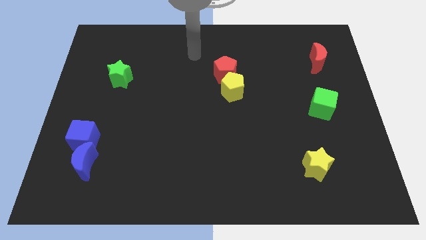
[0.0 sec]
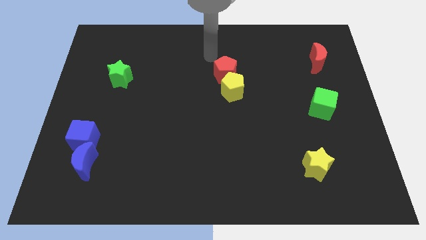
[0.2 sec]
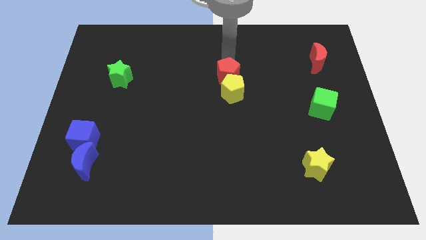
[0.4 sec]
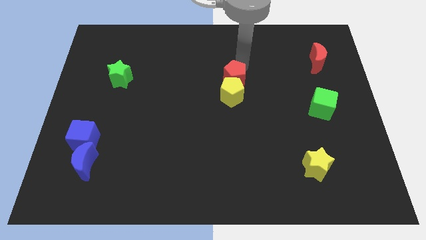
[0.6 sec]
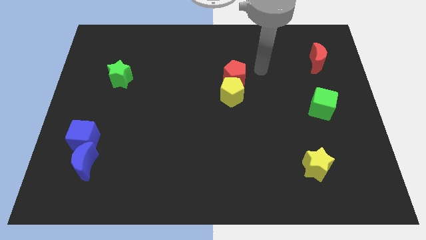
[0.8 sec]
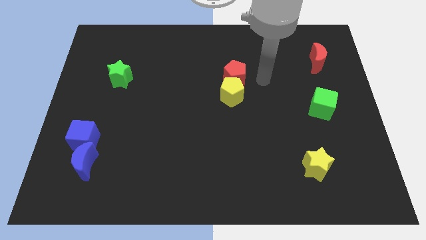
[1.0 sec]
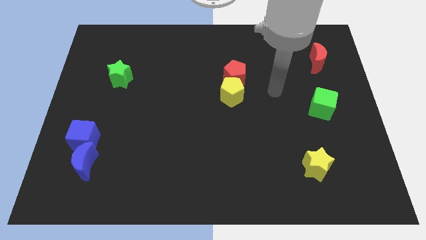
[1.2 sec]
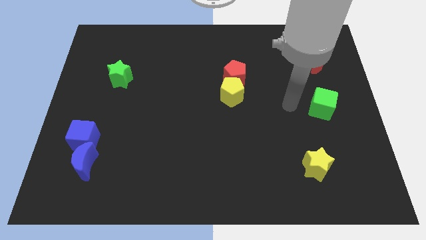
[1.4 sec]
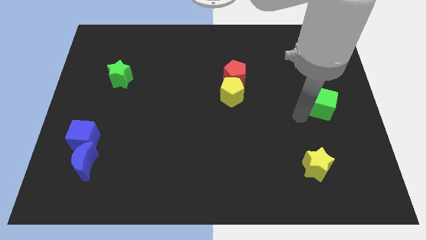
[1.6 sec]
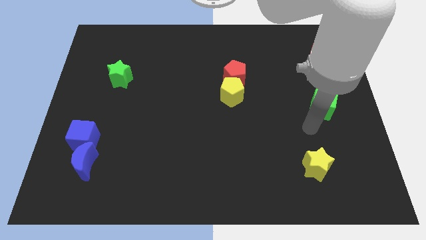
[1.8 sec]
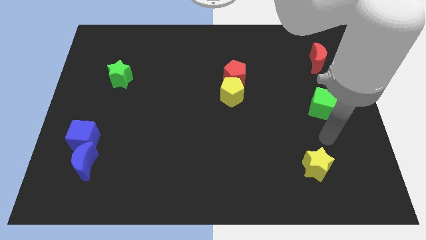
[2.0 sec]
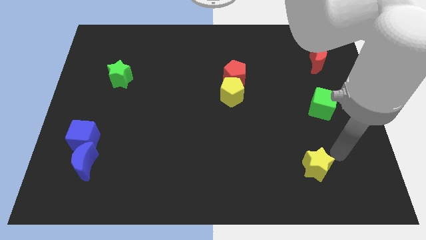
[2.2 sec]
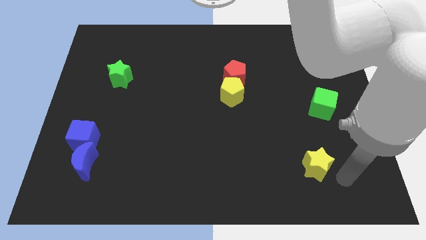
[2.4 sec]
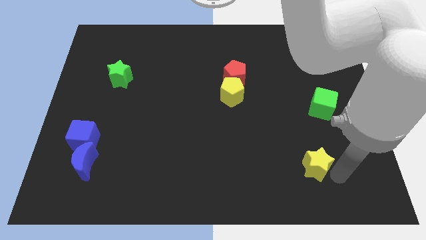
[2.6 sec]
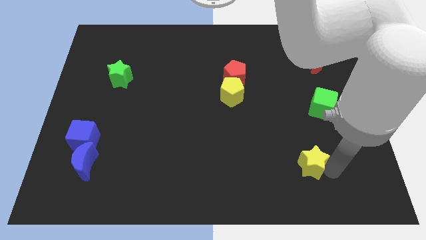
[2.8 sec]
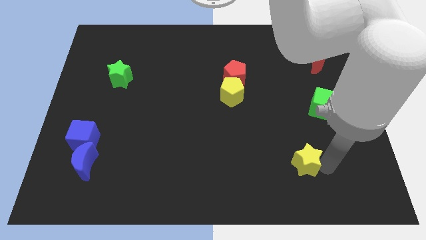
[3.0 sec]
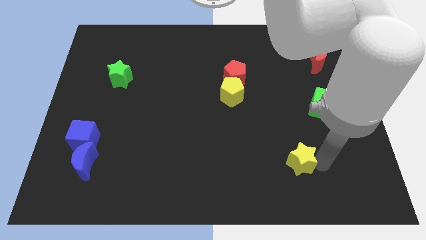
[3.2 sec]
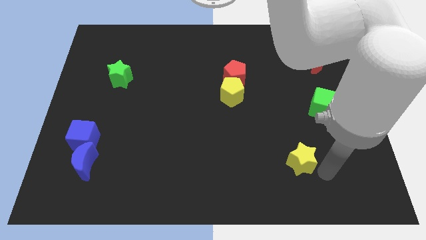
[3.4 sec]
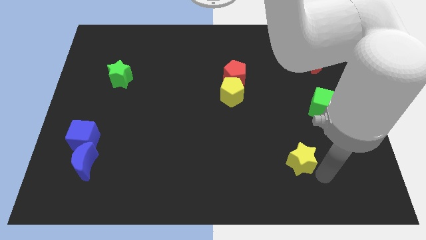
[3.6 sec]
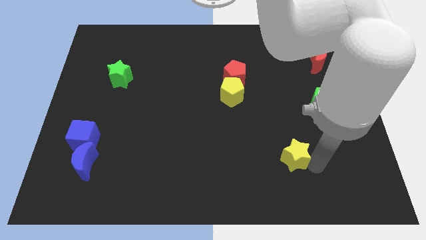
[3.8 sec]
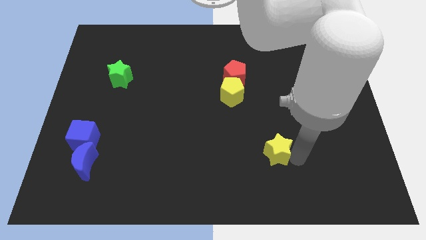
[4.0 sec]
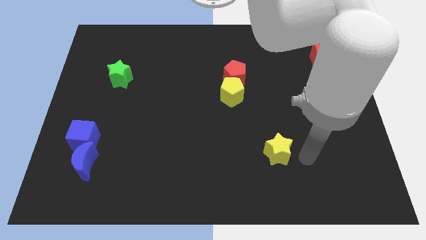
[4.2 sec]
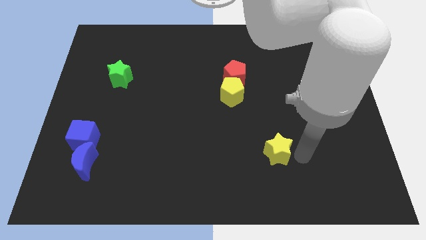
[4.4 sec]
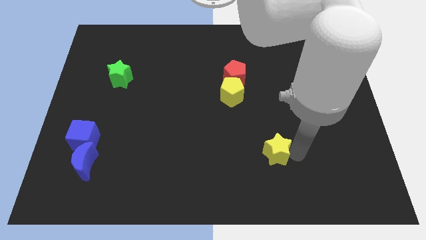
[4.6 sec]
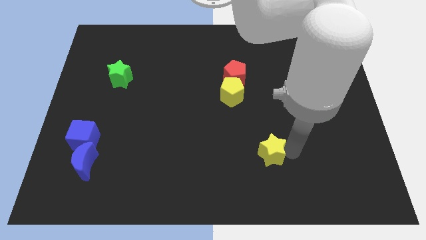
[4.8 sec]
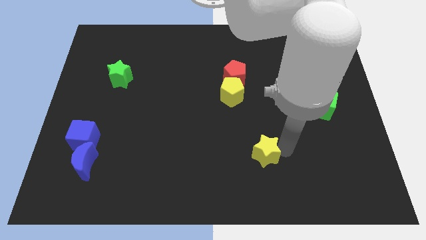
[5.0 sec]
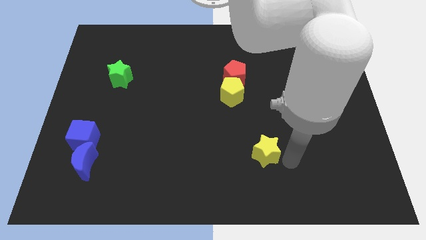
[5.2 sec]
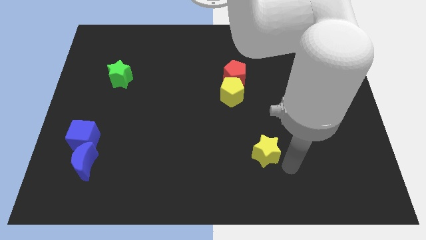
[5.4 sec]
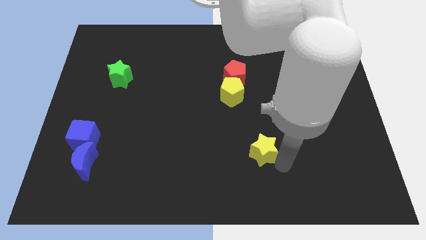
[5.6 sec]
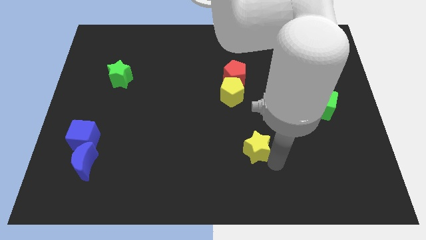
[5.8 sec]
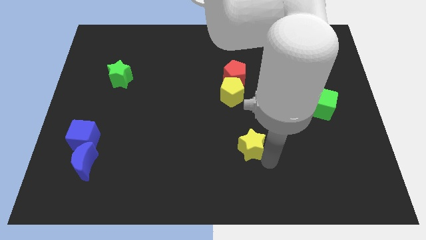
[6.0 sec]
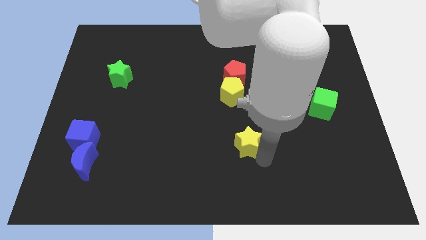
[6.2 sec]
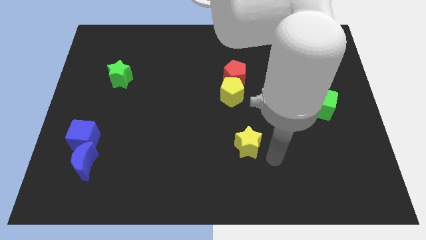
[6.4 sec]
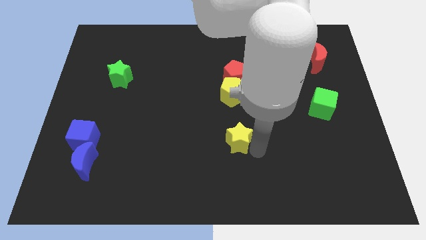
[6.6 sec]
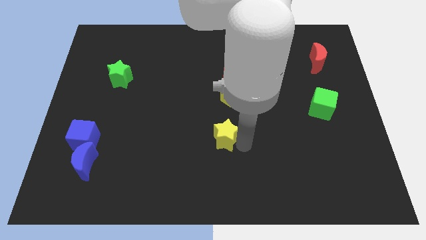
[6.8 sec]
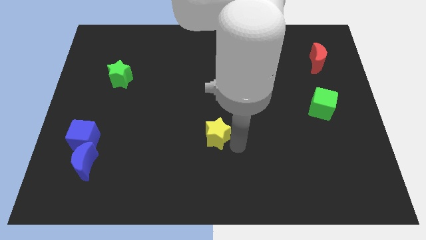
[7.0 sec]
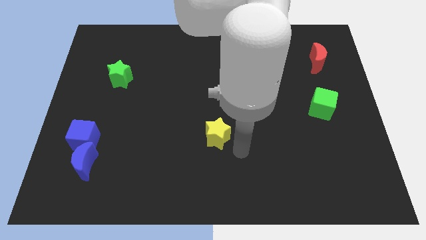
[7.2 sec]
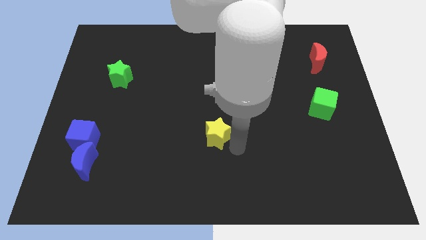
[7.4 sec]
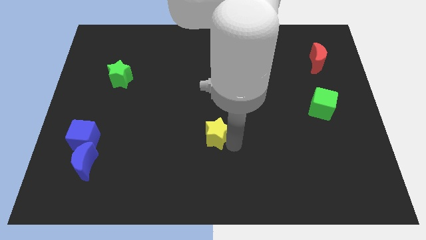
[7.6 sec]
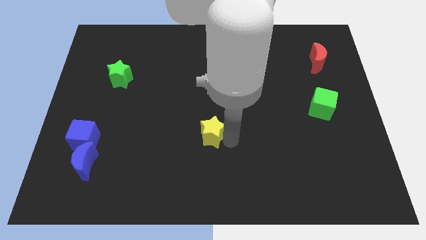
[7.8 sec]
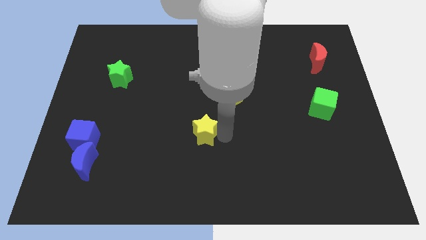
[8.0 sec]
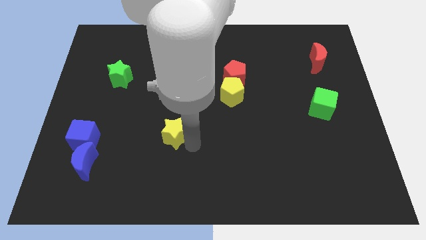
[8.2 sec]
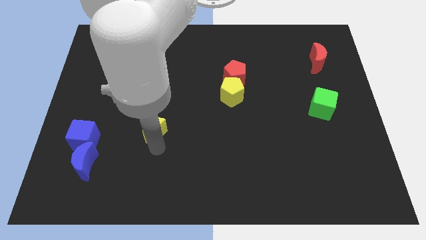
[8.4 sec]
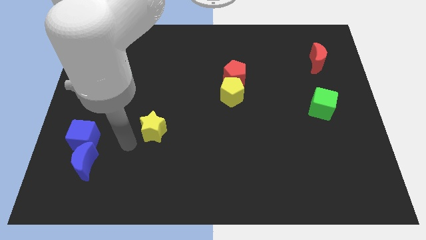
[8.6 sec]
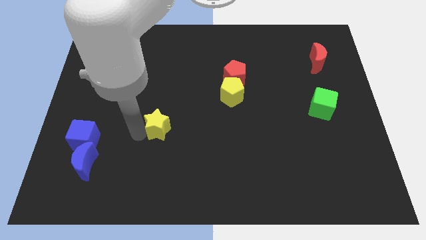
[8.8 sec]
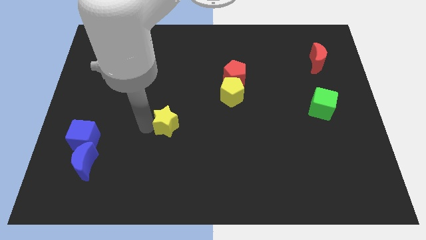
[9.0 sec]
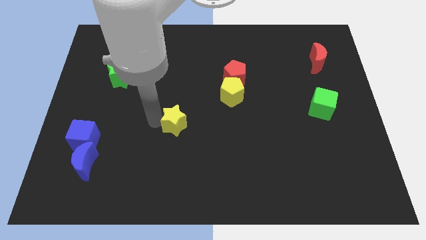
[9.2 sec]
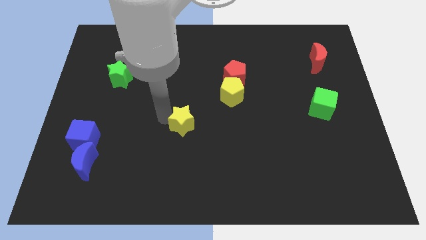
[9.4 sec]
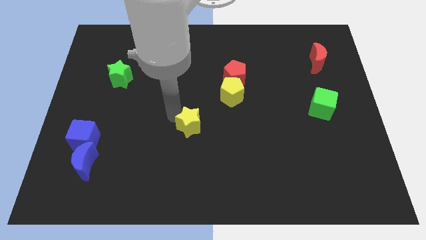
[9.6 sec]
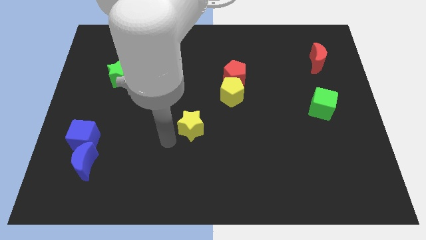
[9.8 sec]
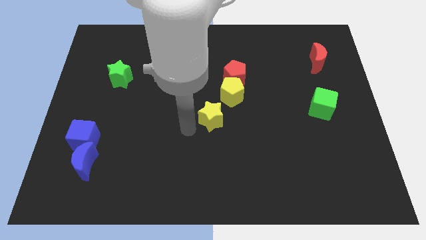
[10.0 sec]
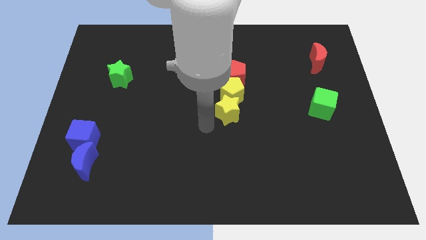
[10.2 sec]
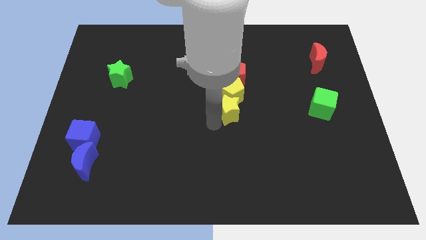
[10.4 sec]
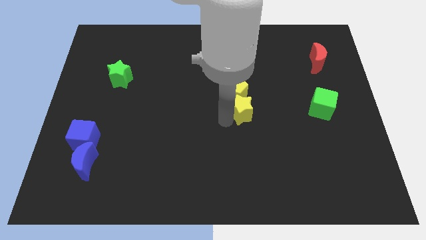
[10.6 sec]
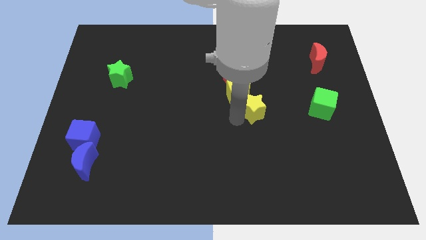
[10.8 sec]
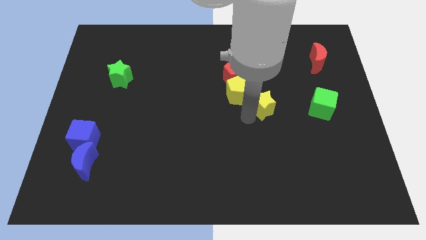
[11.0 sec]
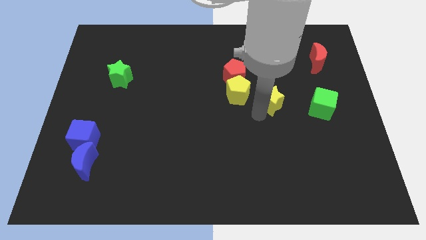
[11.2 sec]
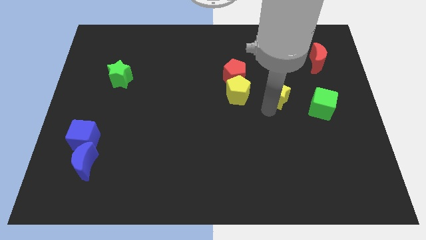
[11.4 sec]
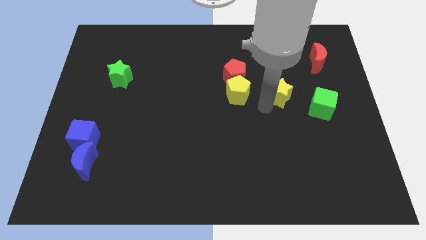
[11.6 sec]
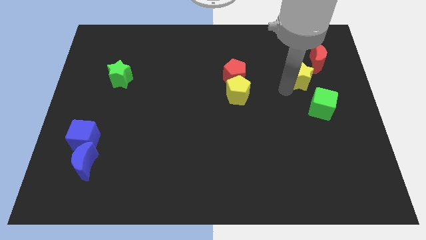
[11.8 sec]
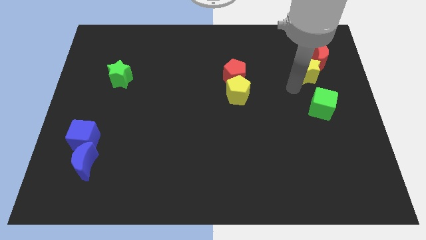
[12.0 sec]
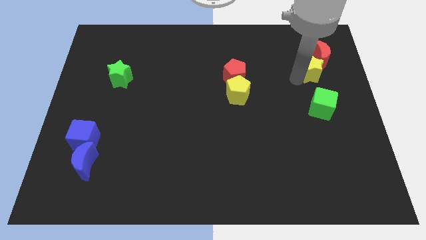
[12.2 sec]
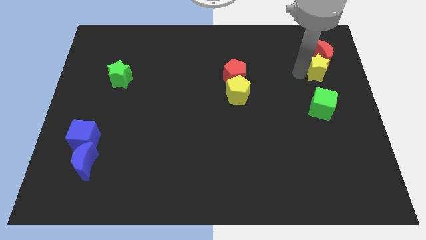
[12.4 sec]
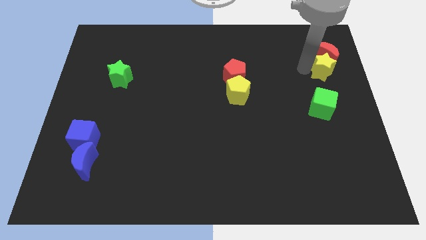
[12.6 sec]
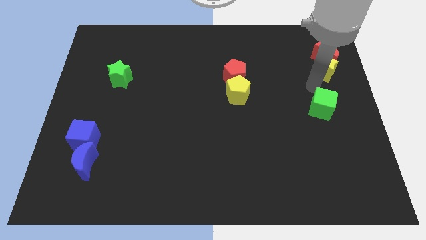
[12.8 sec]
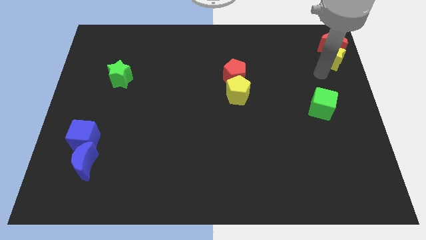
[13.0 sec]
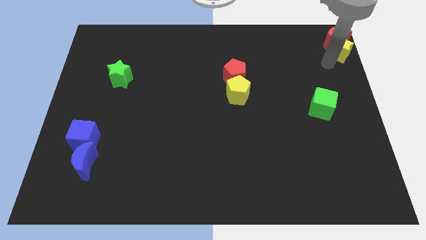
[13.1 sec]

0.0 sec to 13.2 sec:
put the yellow star to the upper right corner

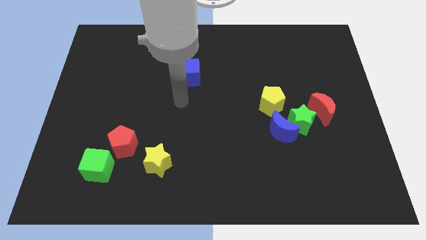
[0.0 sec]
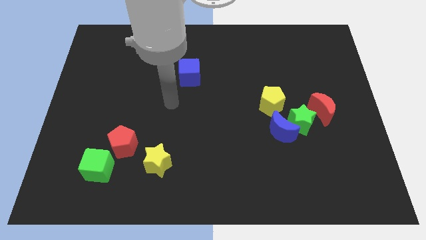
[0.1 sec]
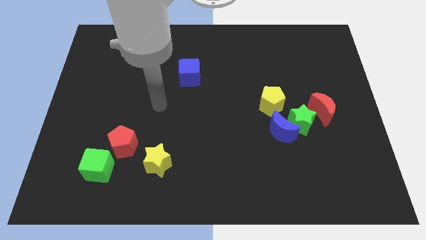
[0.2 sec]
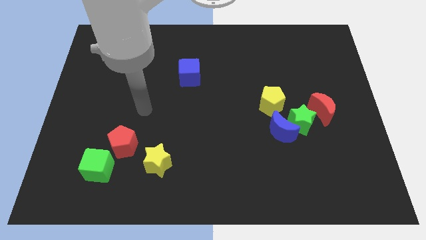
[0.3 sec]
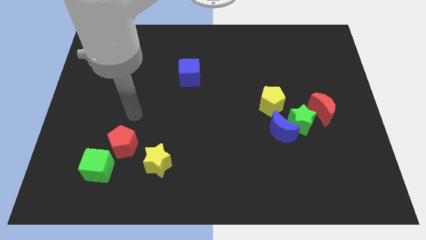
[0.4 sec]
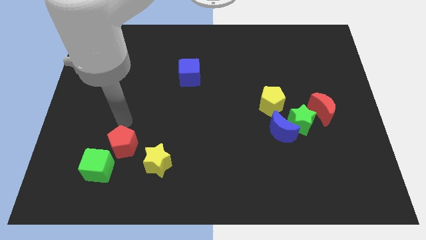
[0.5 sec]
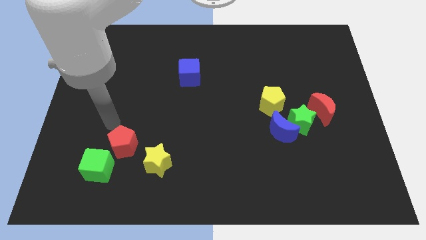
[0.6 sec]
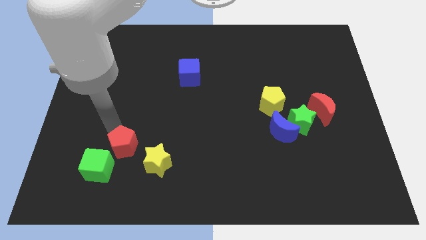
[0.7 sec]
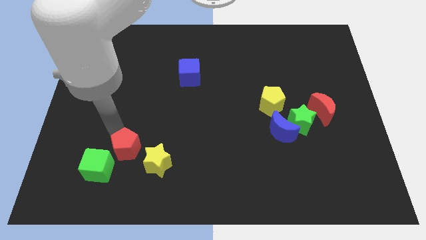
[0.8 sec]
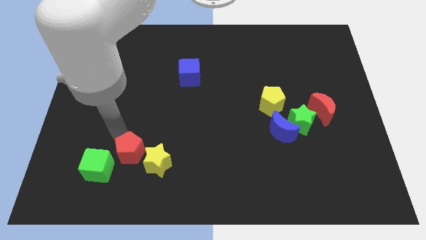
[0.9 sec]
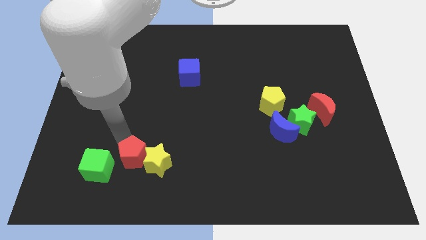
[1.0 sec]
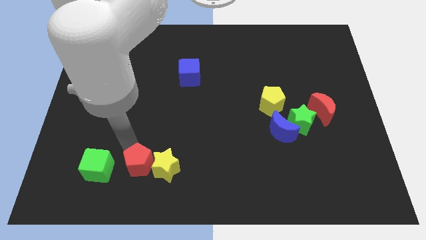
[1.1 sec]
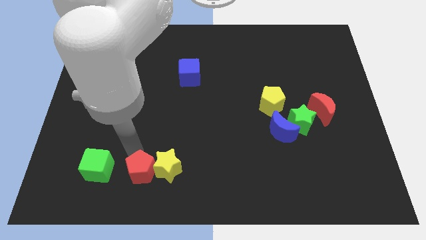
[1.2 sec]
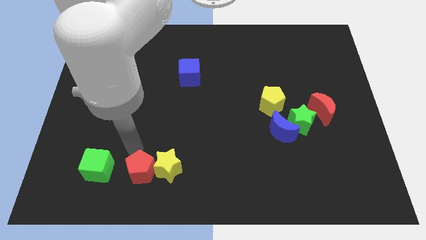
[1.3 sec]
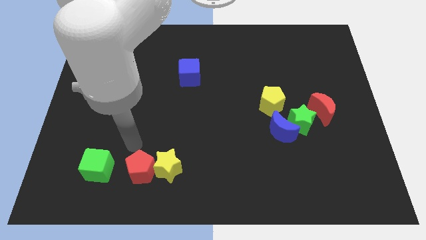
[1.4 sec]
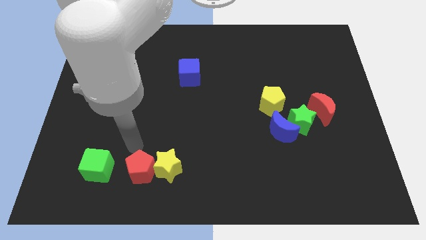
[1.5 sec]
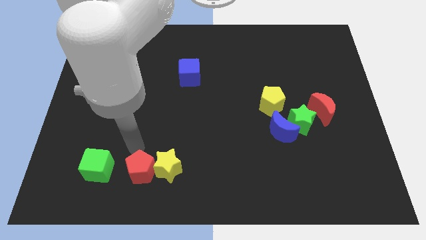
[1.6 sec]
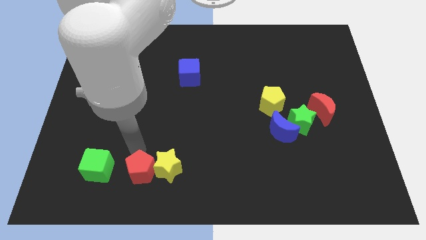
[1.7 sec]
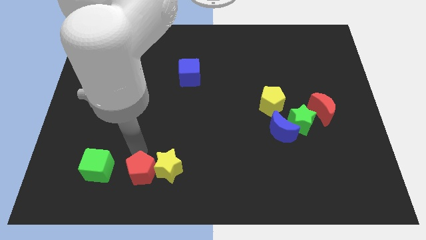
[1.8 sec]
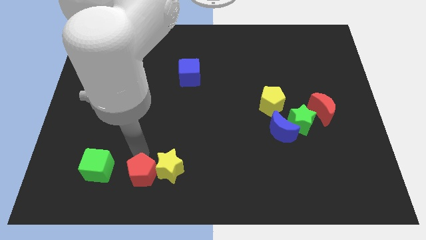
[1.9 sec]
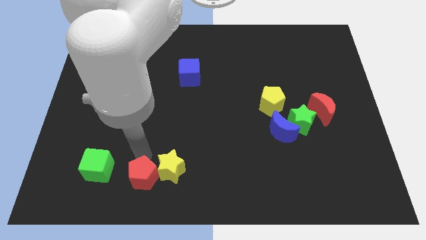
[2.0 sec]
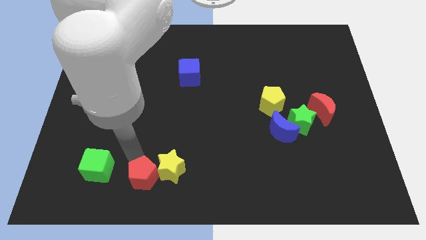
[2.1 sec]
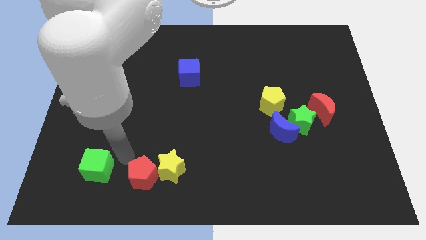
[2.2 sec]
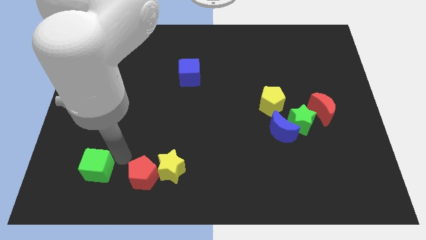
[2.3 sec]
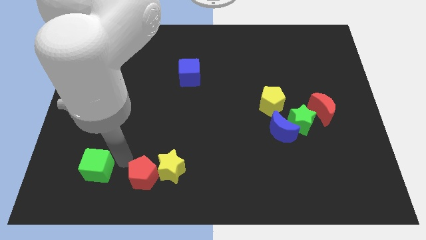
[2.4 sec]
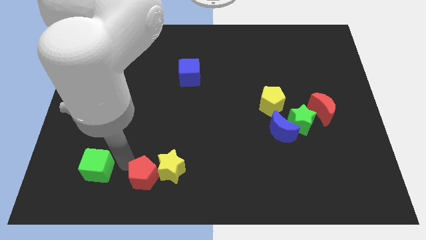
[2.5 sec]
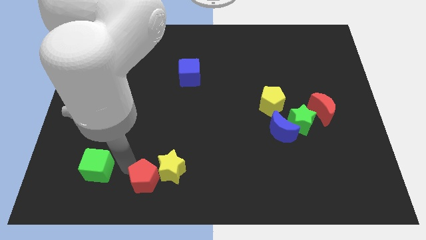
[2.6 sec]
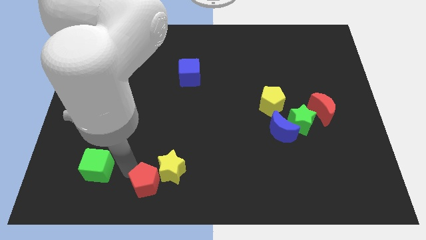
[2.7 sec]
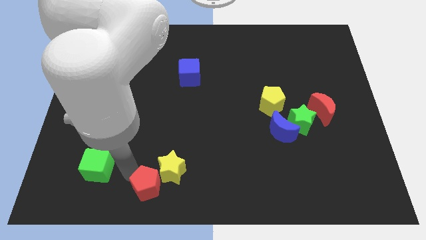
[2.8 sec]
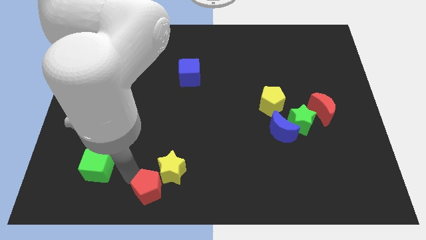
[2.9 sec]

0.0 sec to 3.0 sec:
slide the red pentagon to the bottom side
